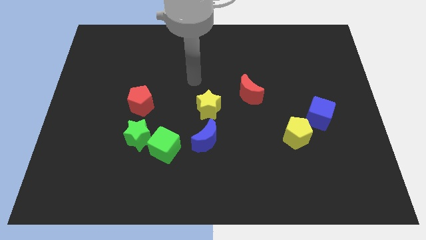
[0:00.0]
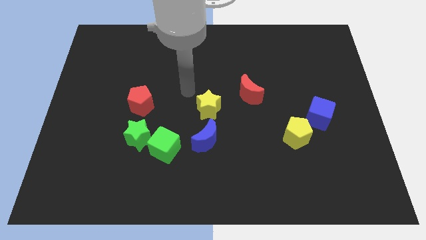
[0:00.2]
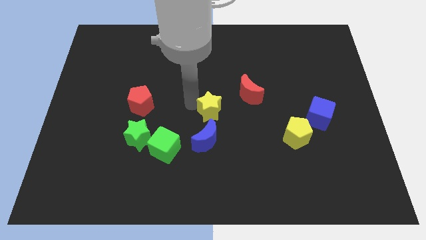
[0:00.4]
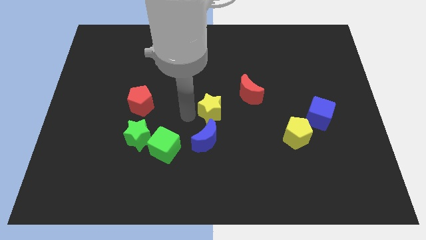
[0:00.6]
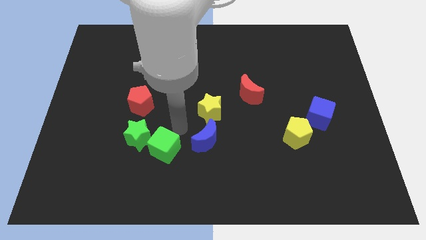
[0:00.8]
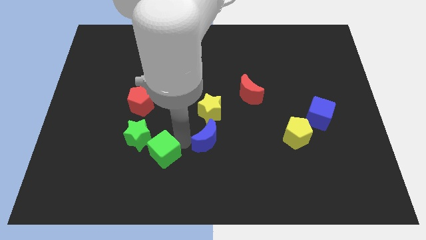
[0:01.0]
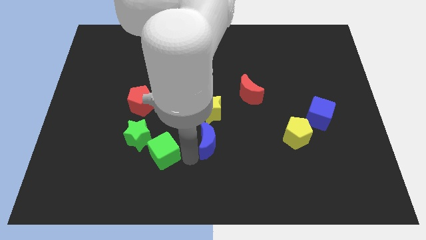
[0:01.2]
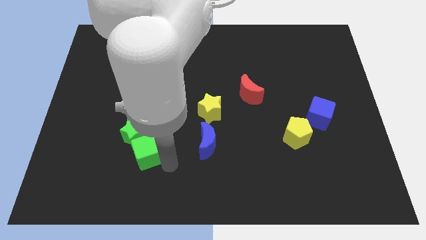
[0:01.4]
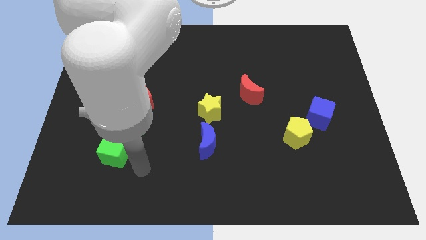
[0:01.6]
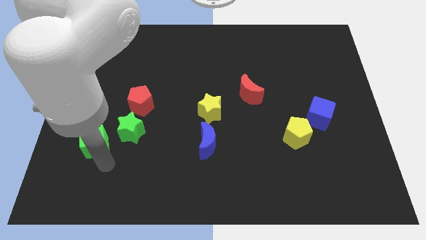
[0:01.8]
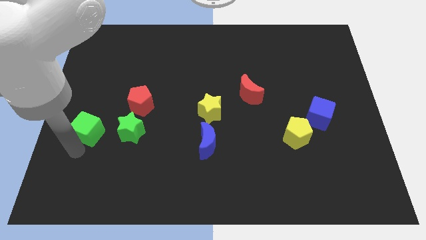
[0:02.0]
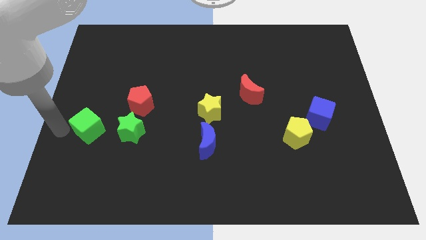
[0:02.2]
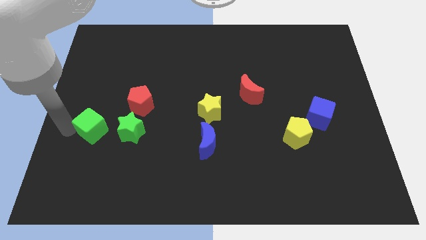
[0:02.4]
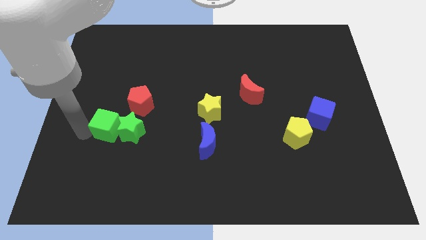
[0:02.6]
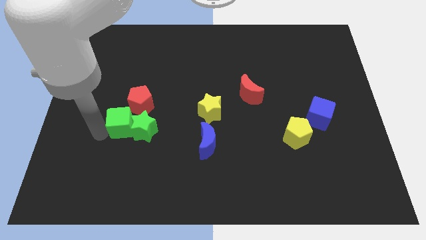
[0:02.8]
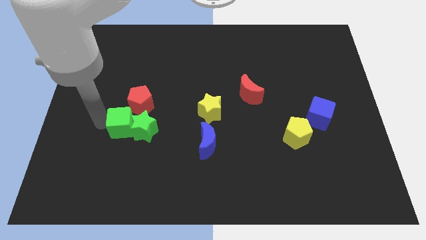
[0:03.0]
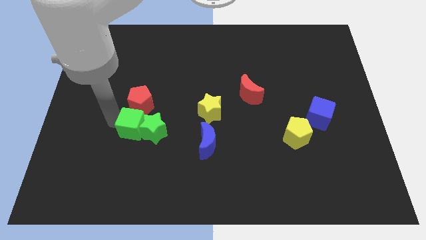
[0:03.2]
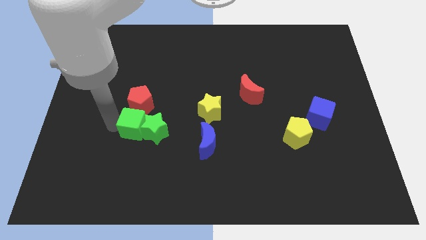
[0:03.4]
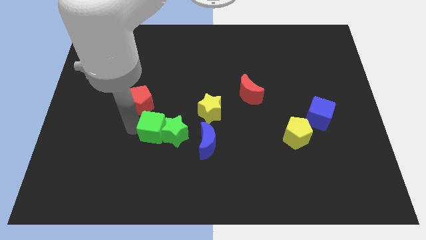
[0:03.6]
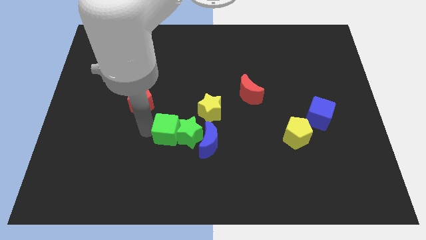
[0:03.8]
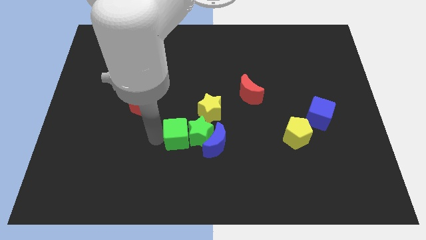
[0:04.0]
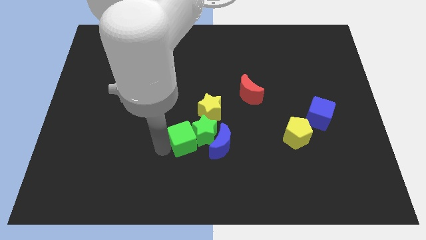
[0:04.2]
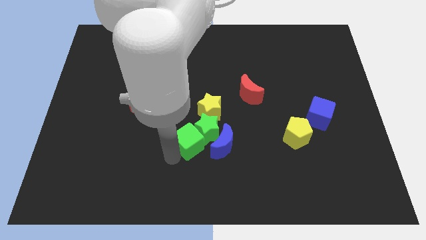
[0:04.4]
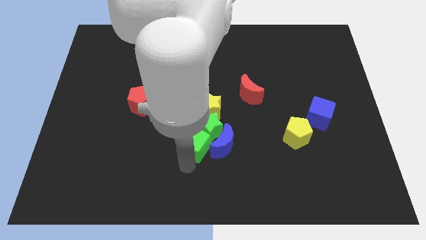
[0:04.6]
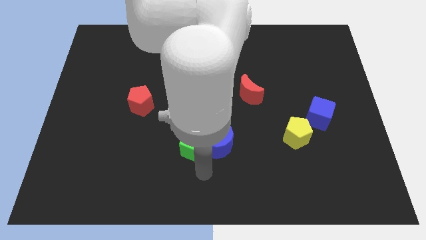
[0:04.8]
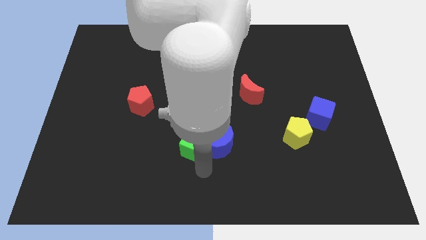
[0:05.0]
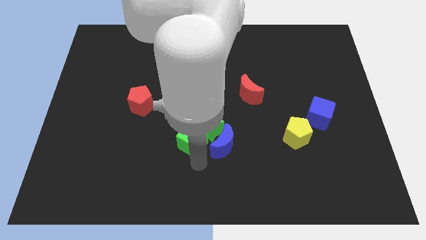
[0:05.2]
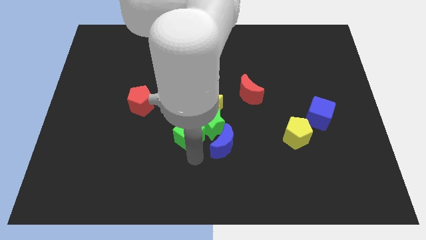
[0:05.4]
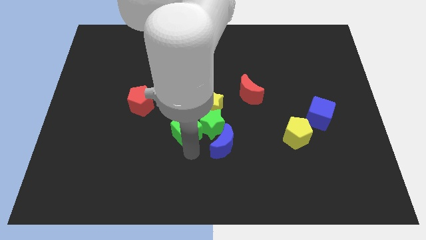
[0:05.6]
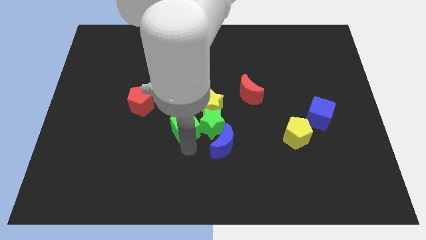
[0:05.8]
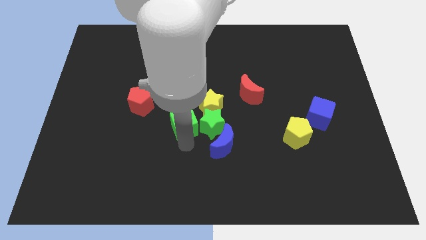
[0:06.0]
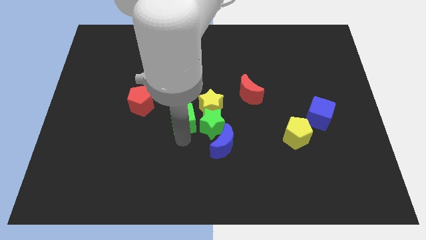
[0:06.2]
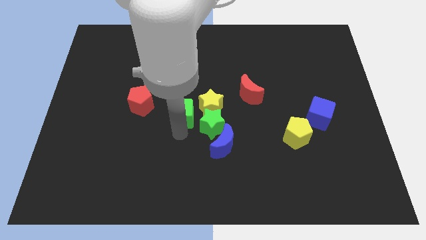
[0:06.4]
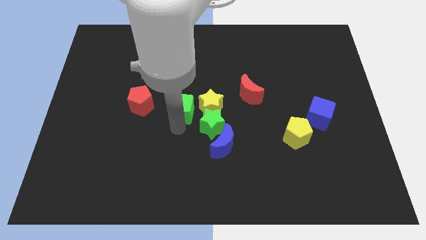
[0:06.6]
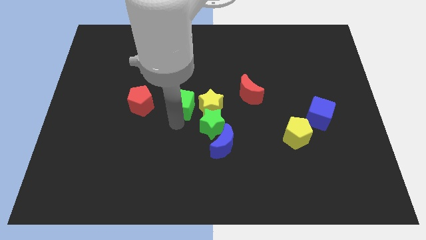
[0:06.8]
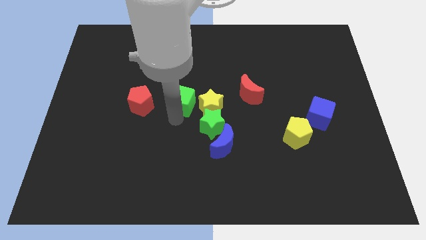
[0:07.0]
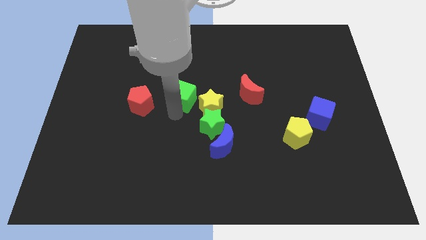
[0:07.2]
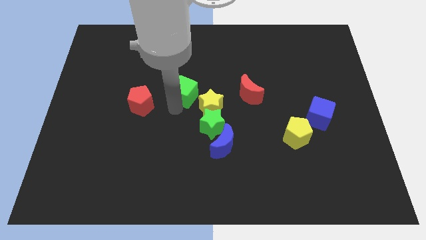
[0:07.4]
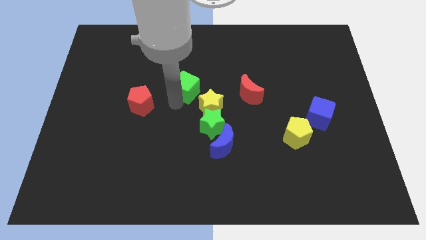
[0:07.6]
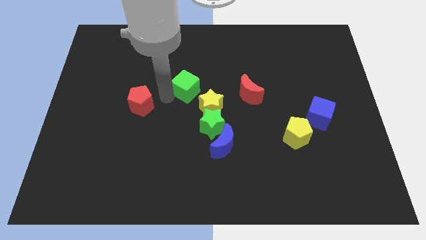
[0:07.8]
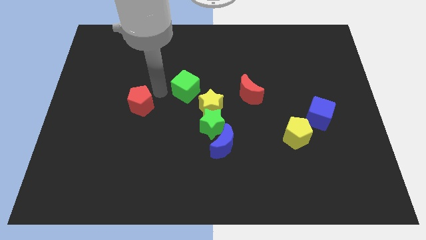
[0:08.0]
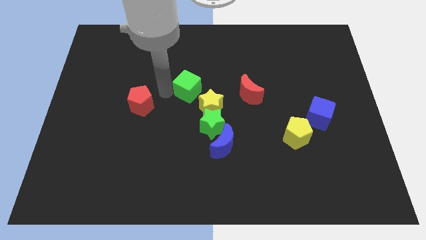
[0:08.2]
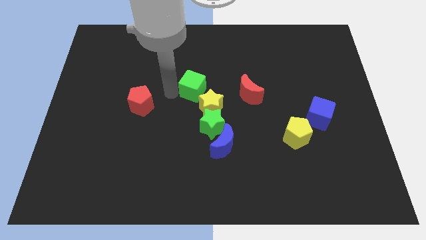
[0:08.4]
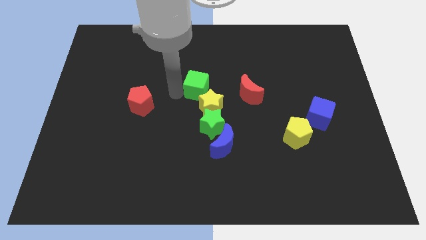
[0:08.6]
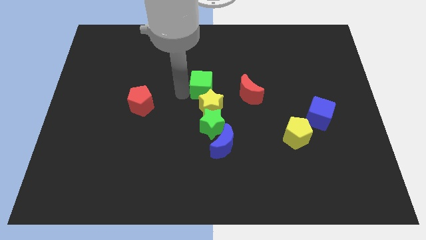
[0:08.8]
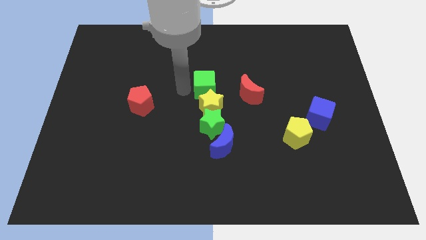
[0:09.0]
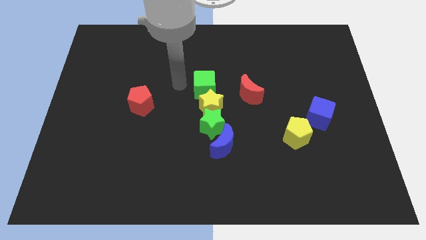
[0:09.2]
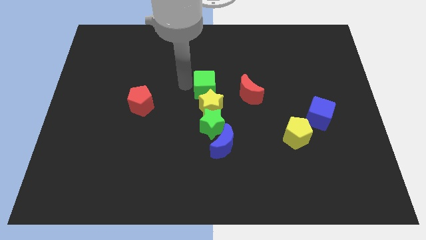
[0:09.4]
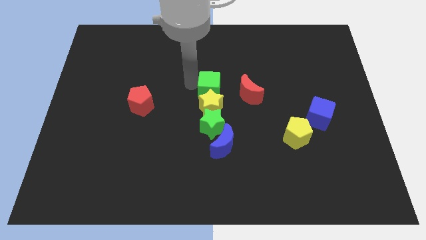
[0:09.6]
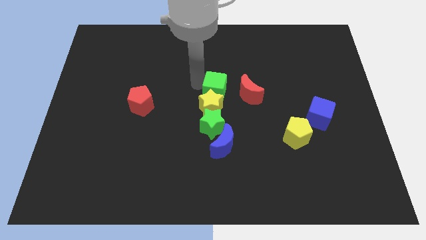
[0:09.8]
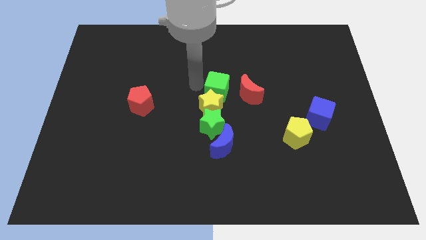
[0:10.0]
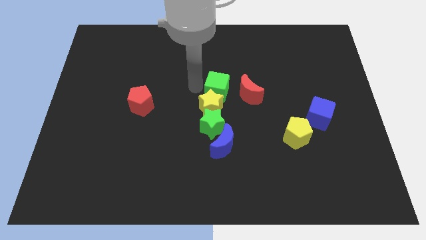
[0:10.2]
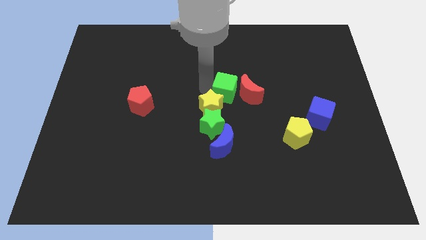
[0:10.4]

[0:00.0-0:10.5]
move the green cube towards the red moon

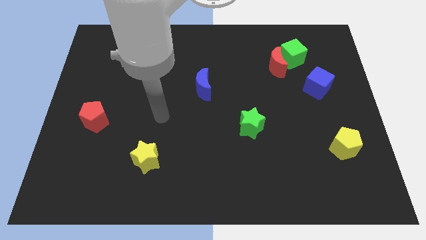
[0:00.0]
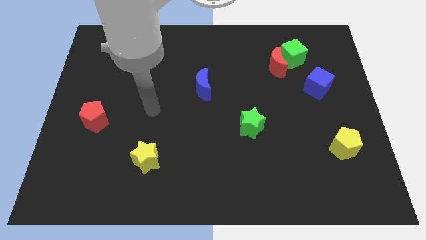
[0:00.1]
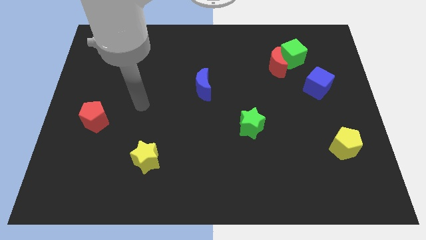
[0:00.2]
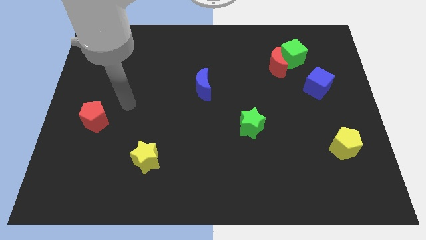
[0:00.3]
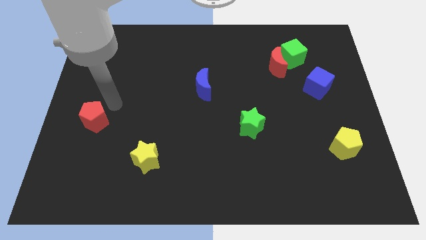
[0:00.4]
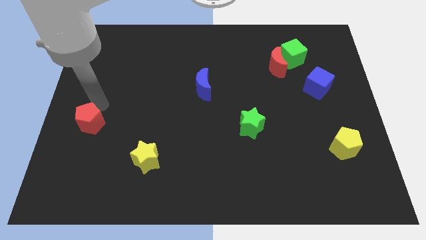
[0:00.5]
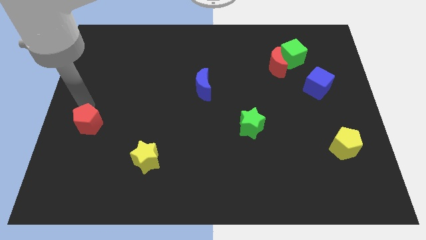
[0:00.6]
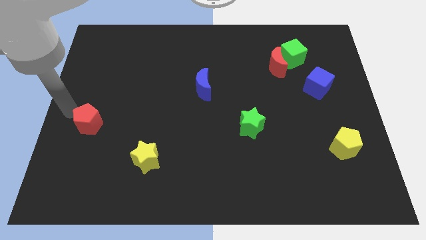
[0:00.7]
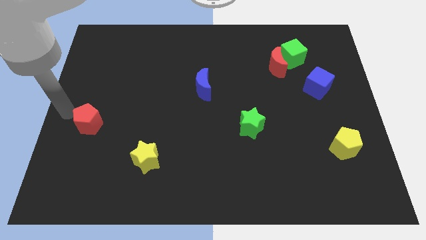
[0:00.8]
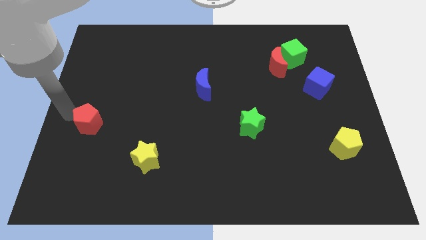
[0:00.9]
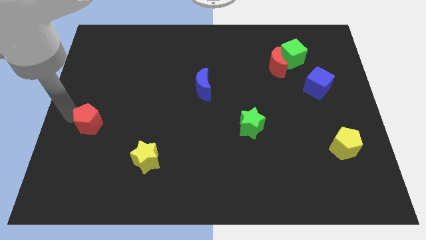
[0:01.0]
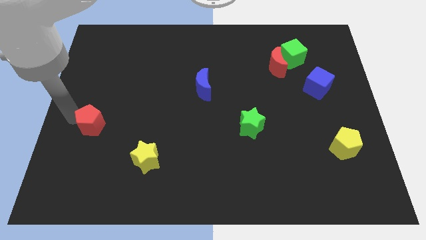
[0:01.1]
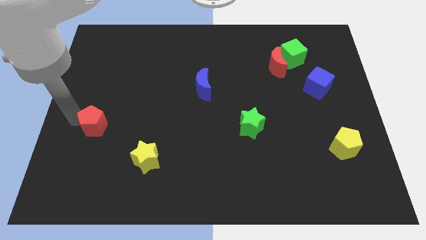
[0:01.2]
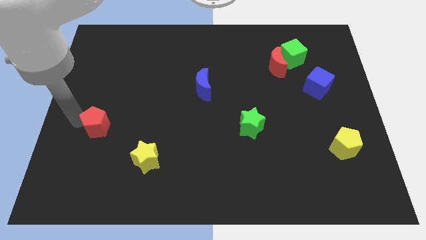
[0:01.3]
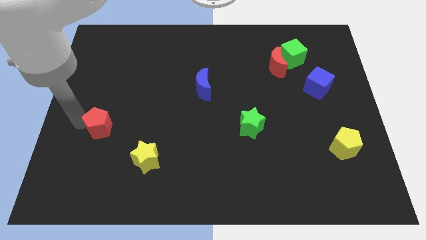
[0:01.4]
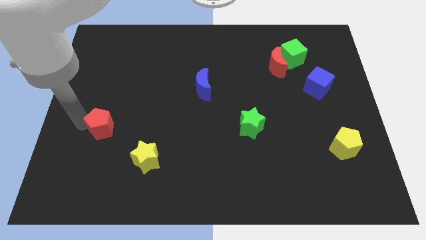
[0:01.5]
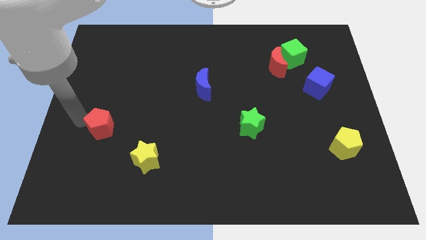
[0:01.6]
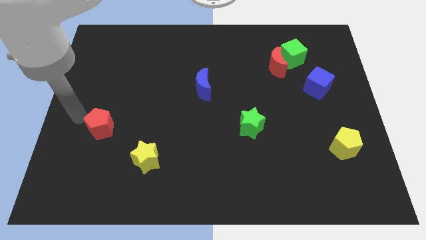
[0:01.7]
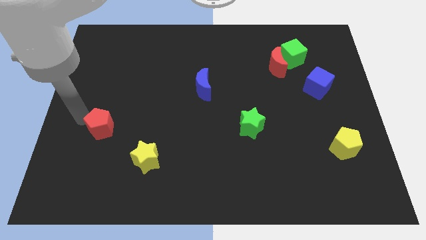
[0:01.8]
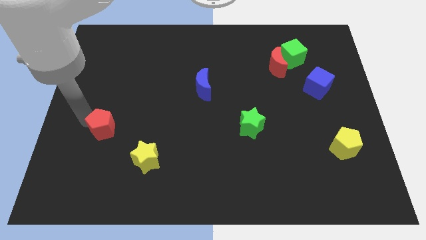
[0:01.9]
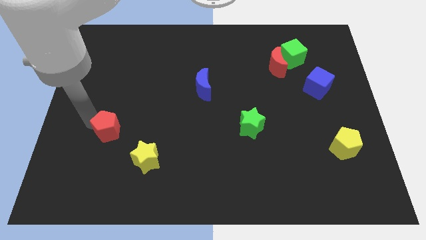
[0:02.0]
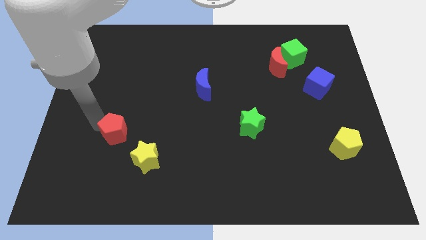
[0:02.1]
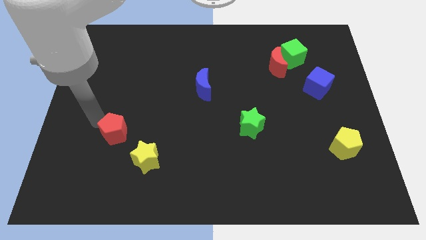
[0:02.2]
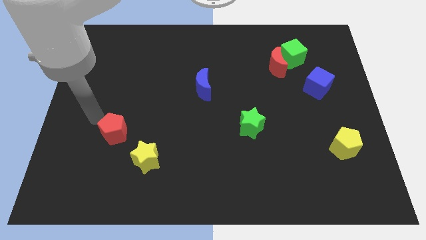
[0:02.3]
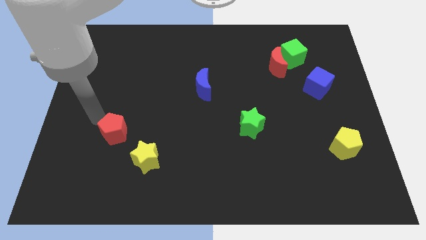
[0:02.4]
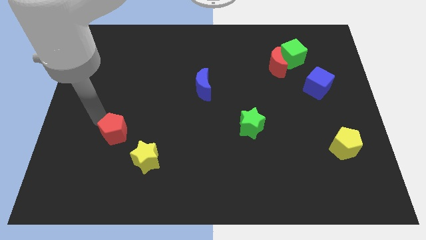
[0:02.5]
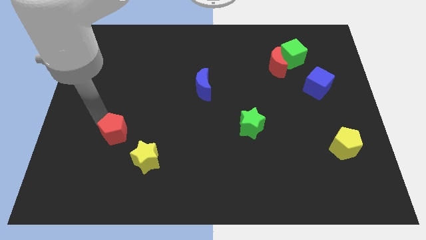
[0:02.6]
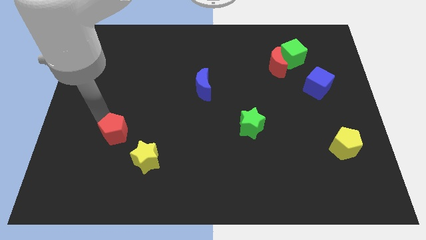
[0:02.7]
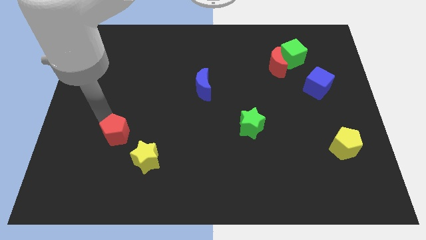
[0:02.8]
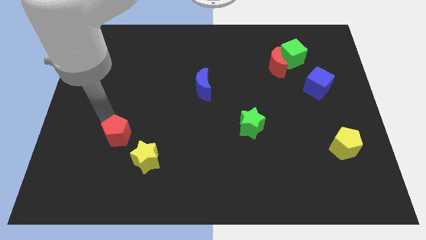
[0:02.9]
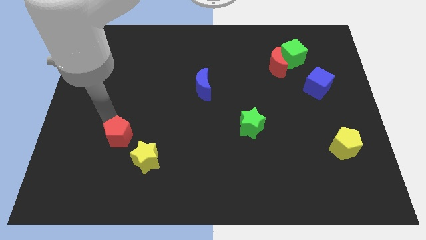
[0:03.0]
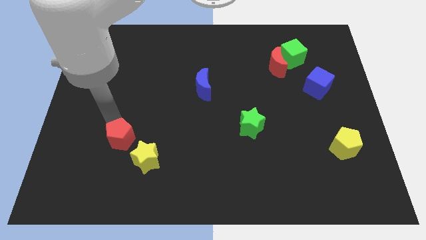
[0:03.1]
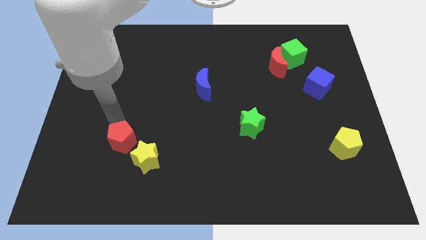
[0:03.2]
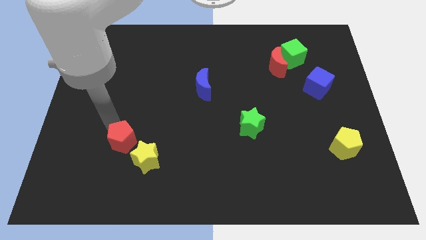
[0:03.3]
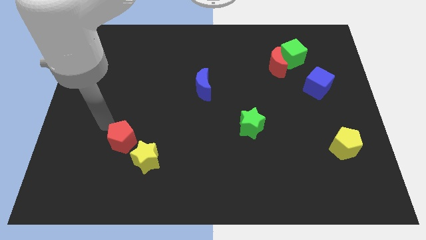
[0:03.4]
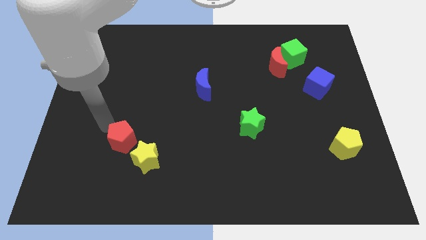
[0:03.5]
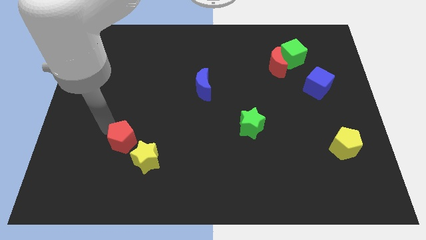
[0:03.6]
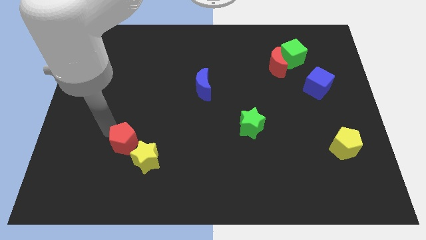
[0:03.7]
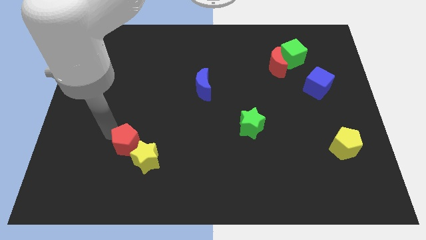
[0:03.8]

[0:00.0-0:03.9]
move the red pentagon towards the yellow star
